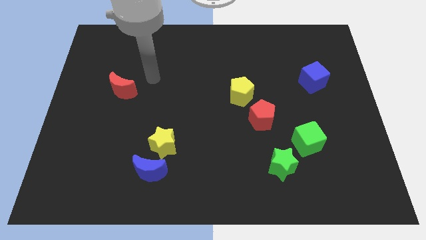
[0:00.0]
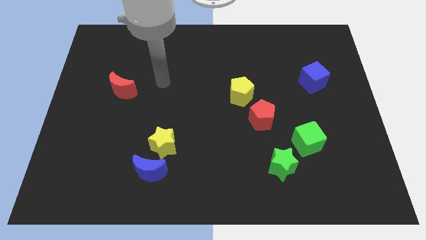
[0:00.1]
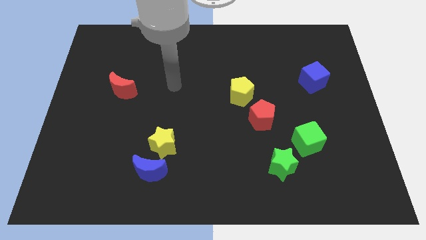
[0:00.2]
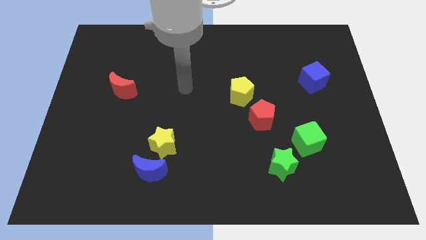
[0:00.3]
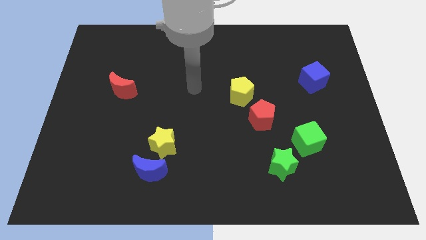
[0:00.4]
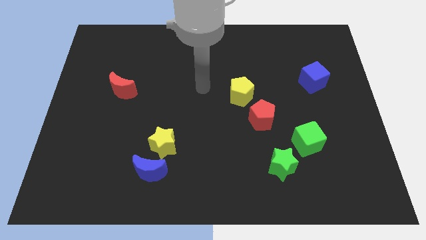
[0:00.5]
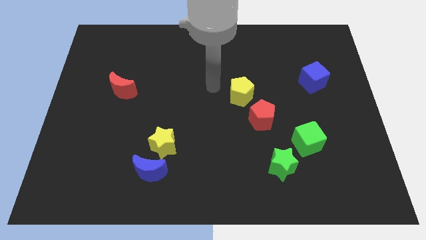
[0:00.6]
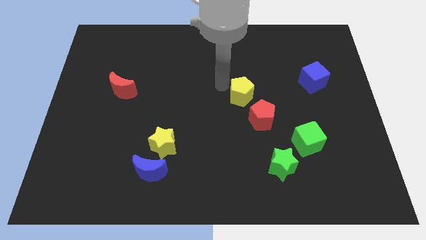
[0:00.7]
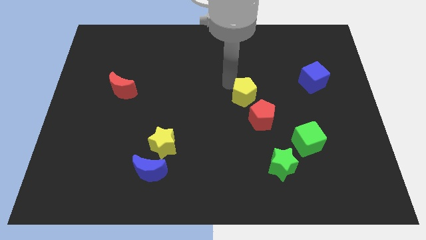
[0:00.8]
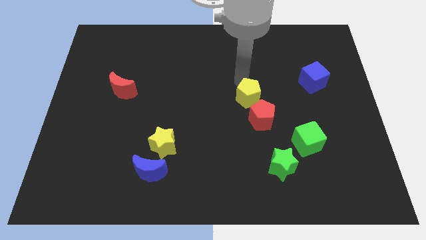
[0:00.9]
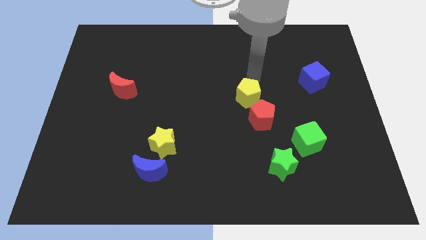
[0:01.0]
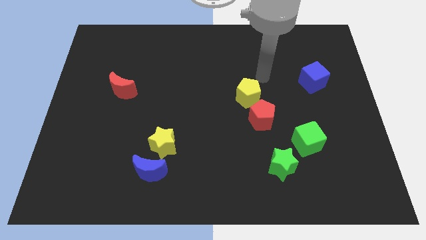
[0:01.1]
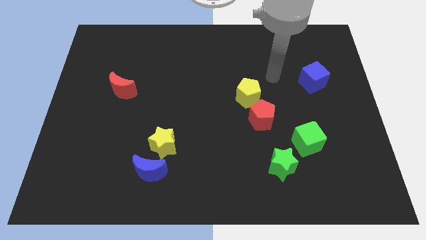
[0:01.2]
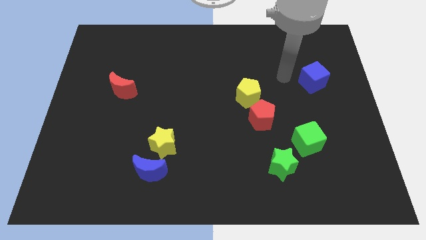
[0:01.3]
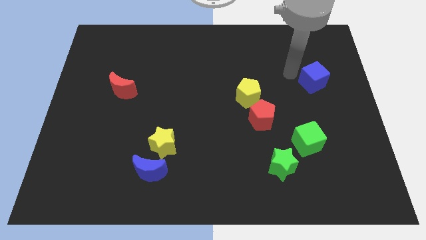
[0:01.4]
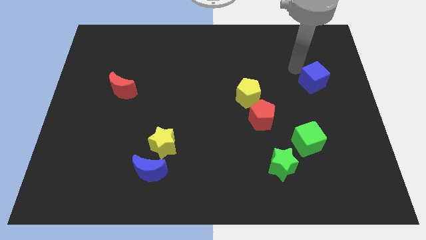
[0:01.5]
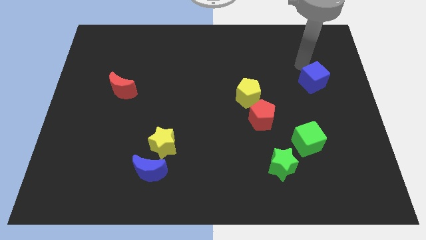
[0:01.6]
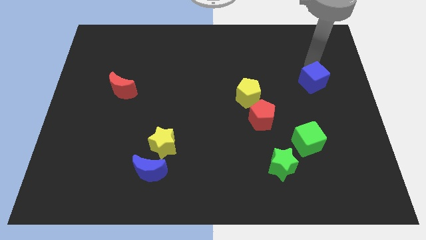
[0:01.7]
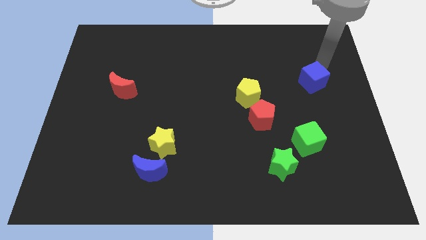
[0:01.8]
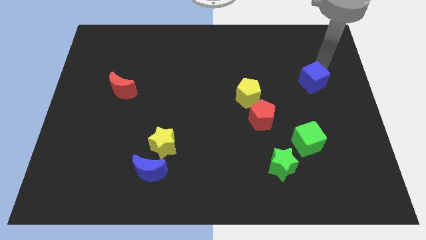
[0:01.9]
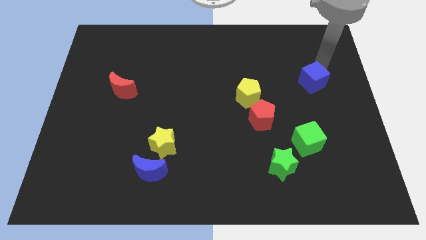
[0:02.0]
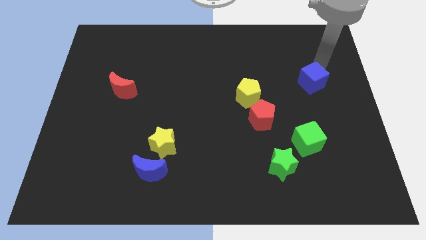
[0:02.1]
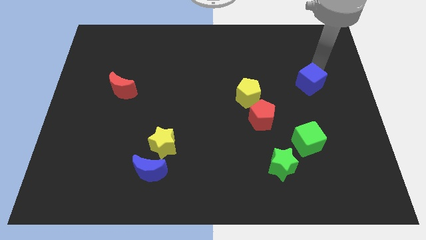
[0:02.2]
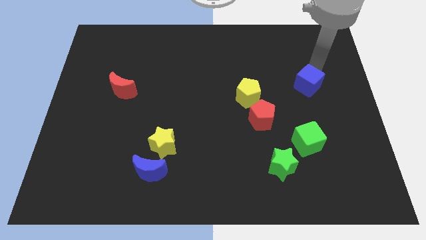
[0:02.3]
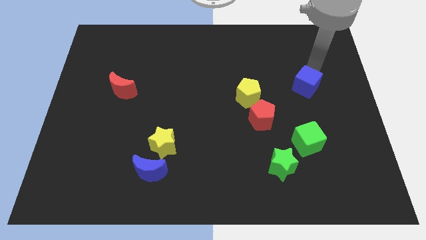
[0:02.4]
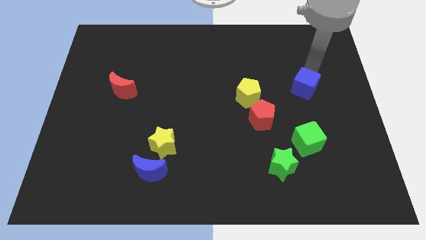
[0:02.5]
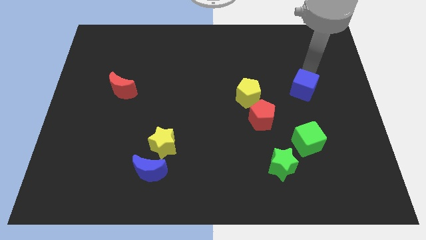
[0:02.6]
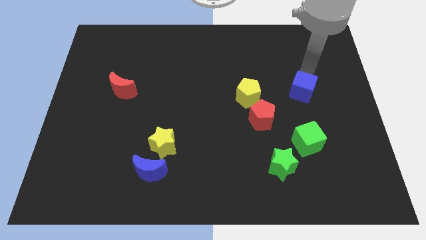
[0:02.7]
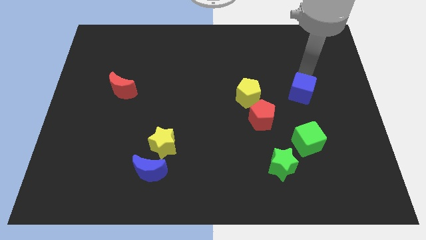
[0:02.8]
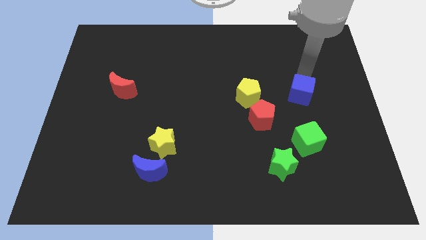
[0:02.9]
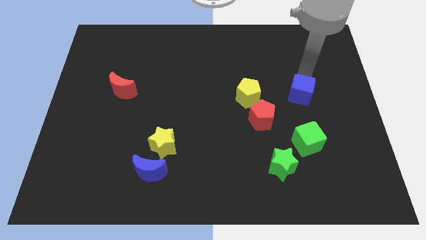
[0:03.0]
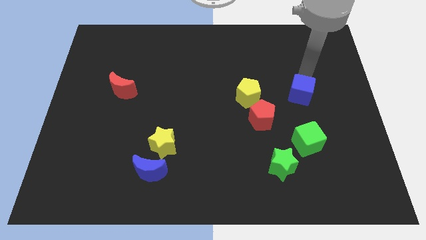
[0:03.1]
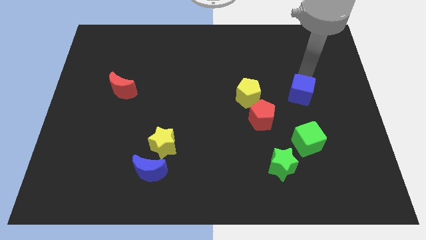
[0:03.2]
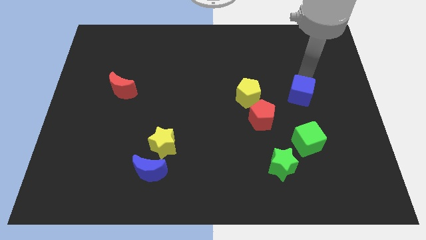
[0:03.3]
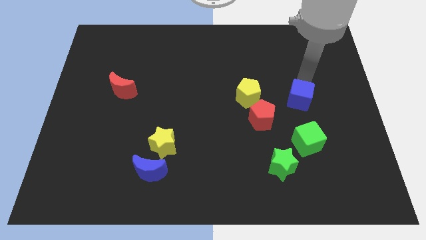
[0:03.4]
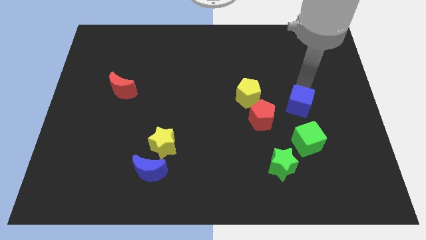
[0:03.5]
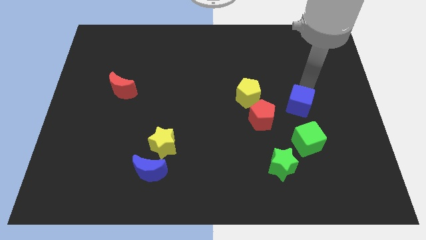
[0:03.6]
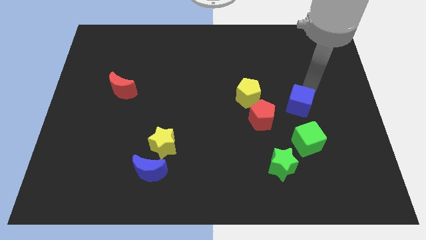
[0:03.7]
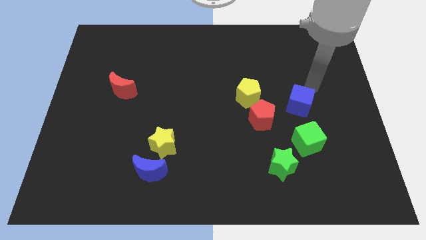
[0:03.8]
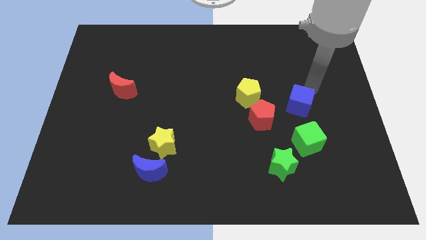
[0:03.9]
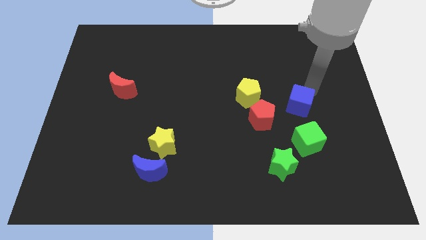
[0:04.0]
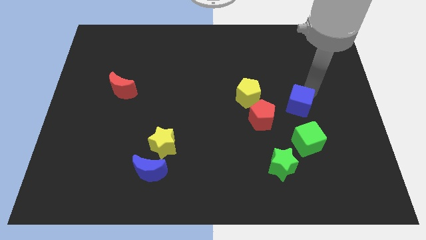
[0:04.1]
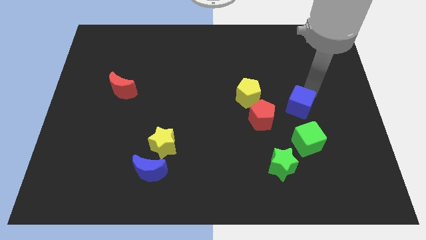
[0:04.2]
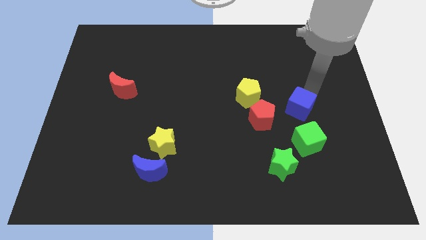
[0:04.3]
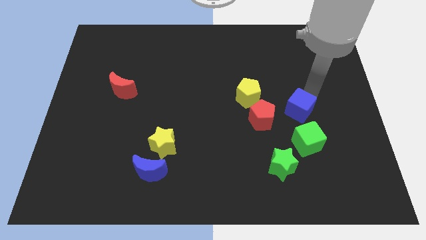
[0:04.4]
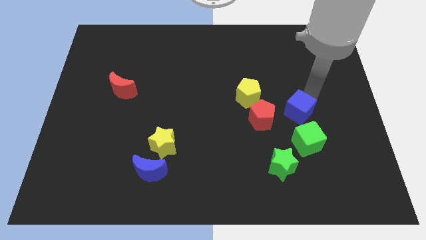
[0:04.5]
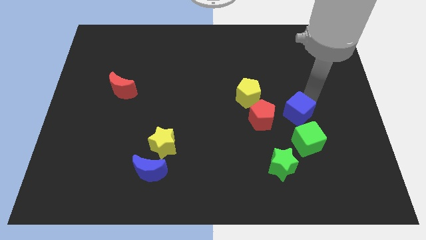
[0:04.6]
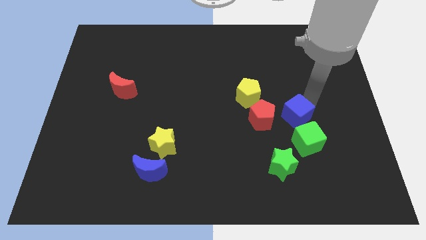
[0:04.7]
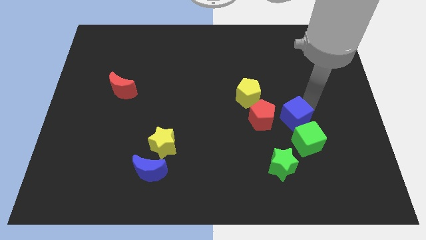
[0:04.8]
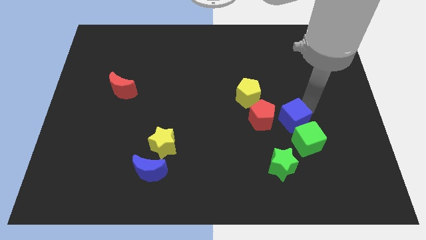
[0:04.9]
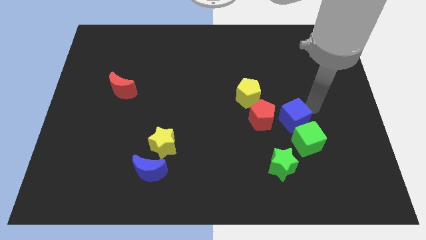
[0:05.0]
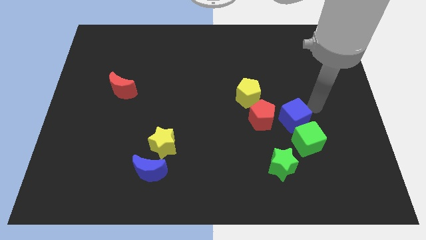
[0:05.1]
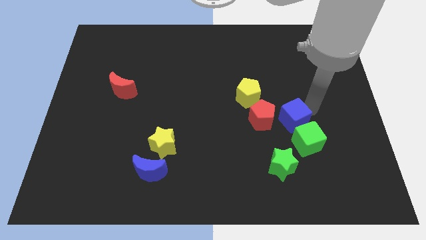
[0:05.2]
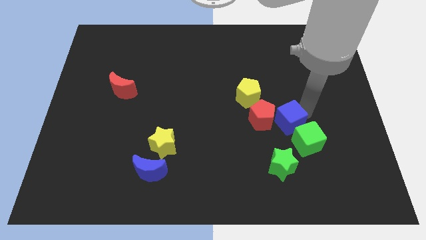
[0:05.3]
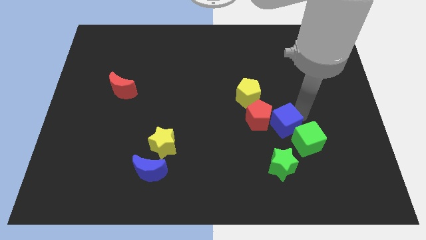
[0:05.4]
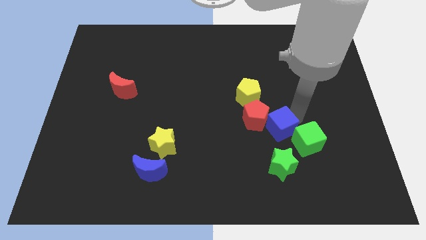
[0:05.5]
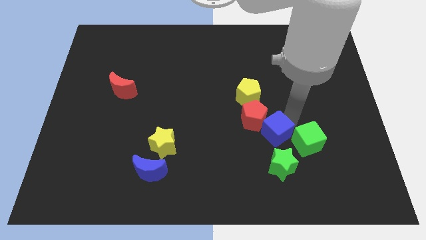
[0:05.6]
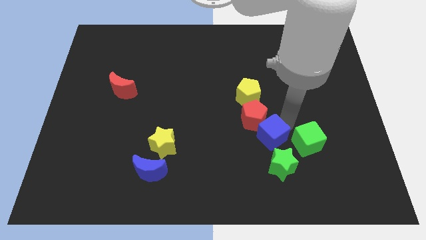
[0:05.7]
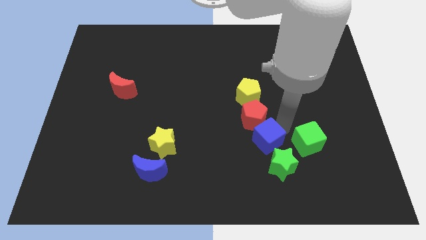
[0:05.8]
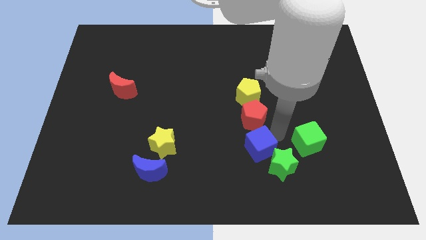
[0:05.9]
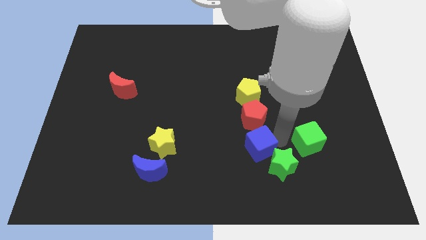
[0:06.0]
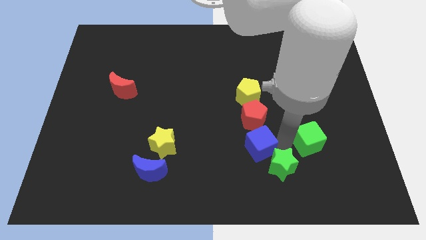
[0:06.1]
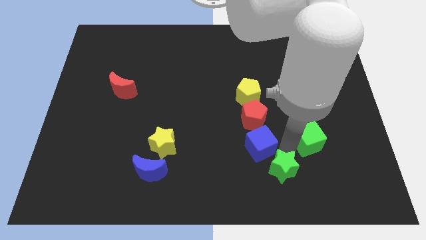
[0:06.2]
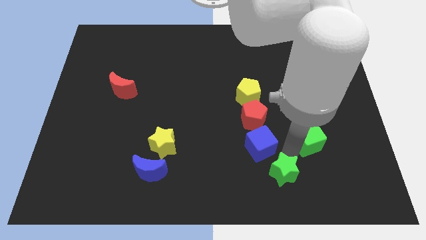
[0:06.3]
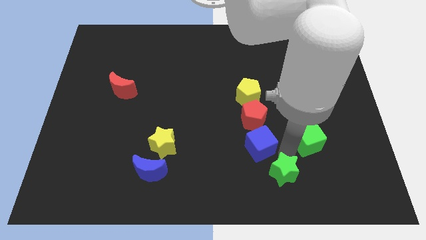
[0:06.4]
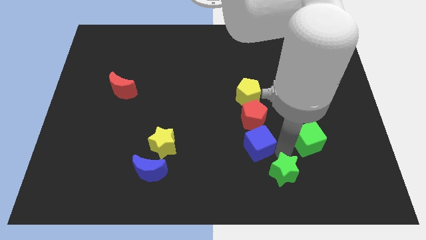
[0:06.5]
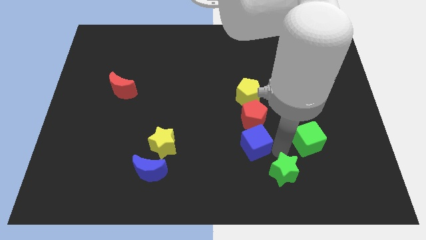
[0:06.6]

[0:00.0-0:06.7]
put the blue cube diagonally down and to the left of the red pentagon

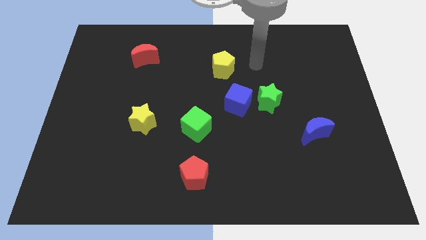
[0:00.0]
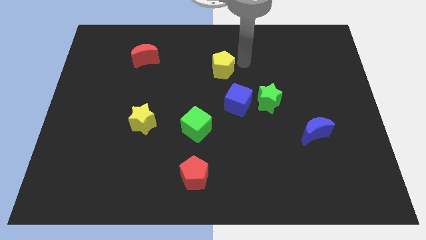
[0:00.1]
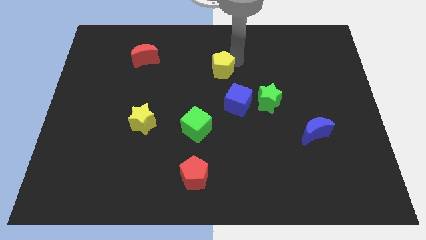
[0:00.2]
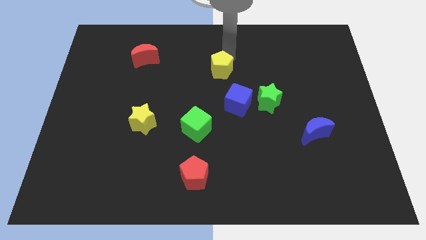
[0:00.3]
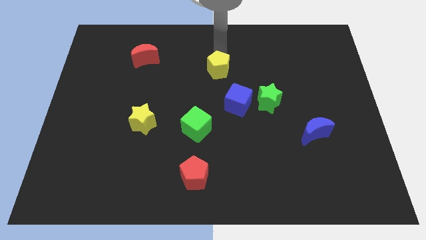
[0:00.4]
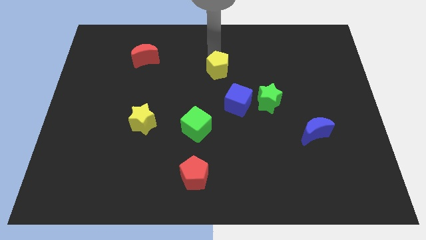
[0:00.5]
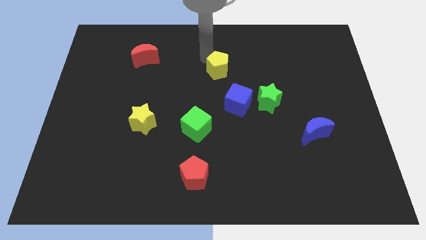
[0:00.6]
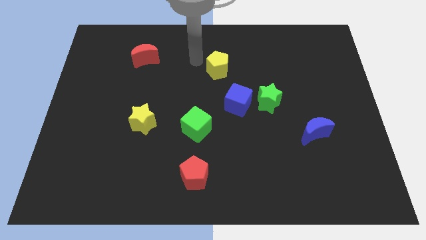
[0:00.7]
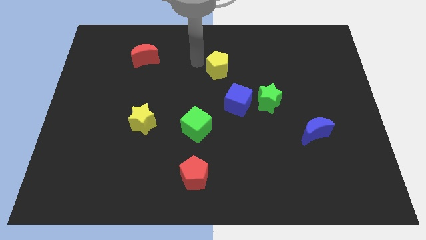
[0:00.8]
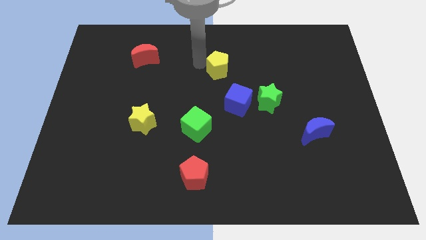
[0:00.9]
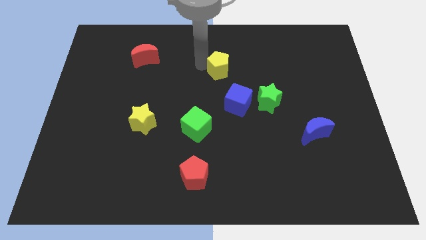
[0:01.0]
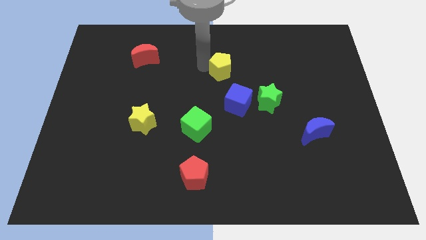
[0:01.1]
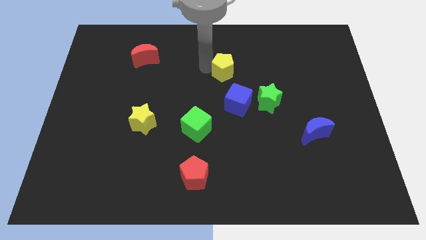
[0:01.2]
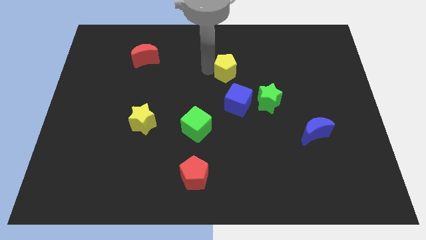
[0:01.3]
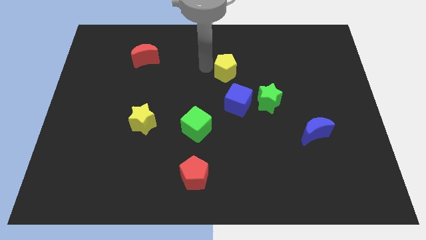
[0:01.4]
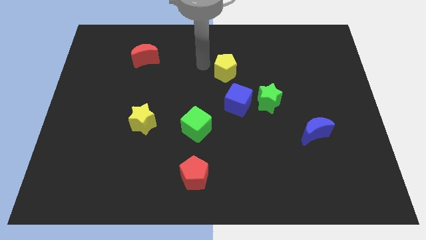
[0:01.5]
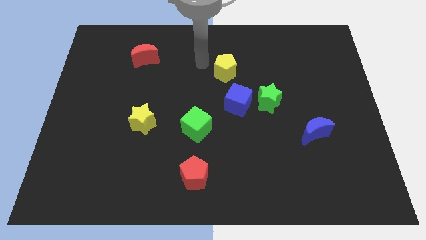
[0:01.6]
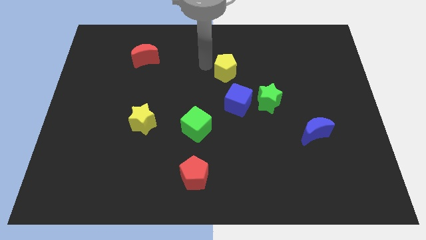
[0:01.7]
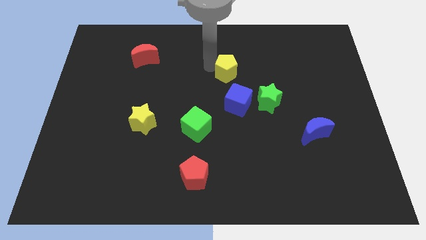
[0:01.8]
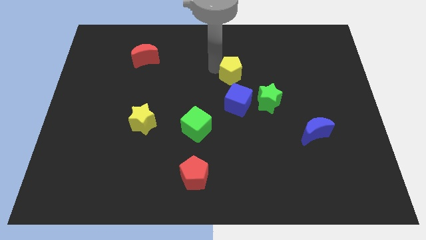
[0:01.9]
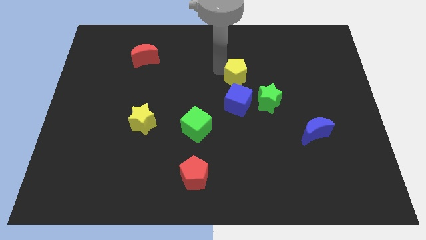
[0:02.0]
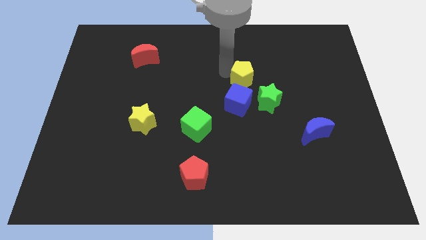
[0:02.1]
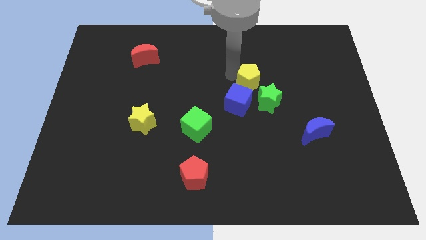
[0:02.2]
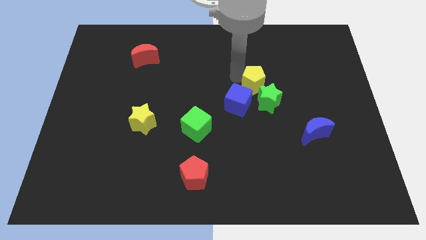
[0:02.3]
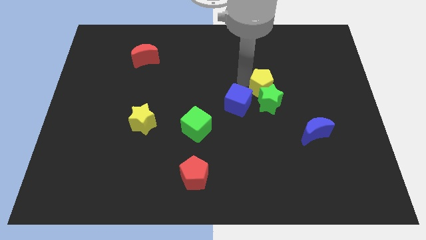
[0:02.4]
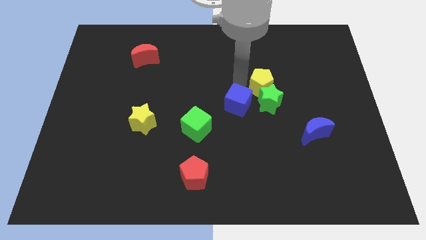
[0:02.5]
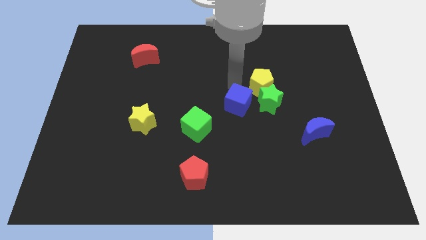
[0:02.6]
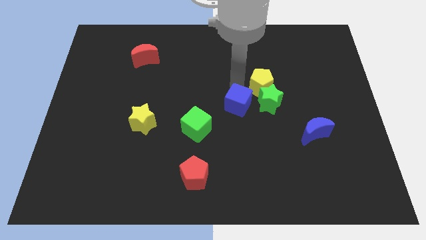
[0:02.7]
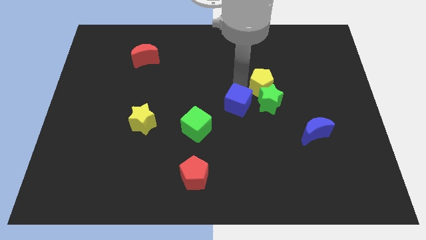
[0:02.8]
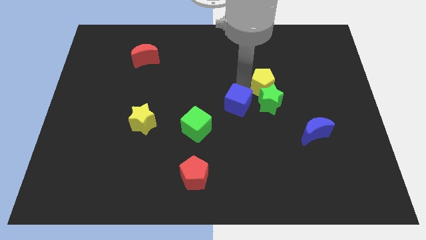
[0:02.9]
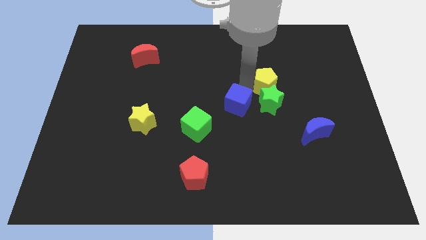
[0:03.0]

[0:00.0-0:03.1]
put the yellow pentagon to the top right of the green star
